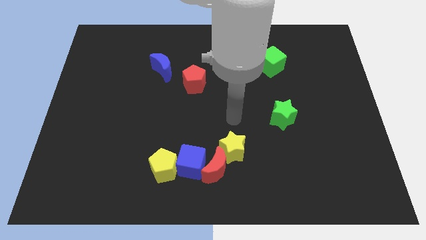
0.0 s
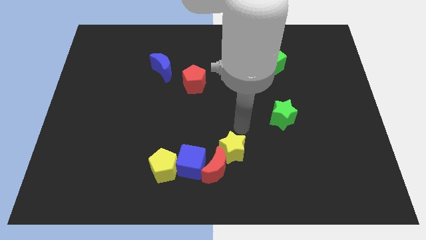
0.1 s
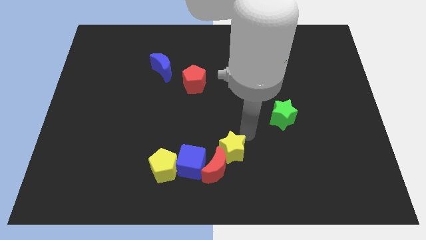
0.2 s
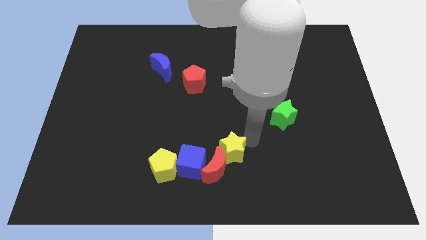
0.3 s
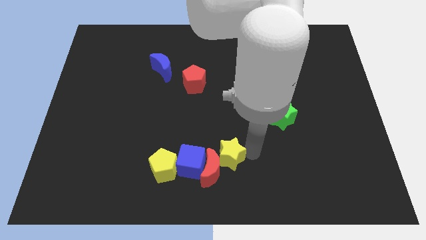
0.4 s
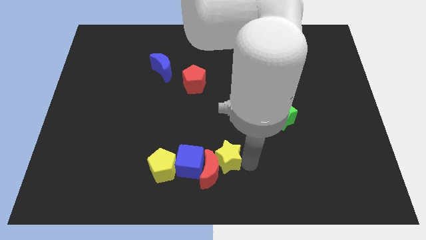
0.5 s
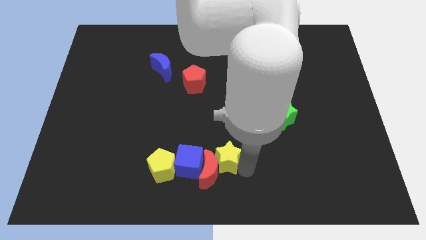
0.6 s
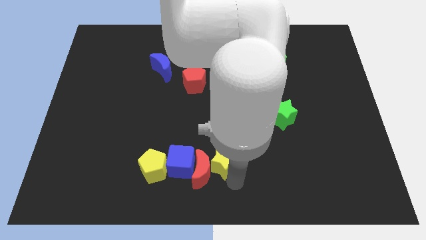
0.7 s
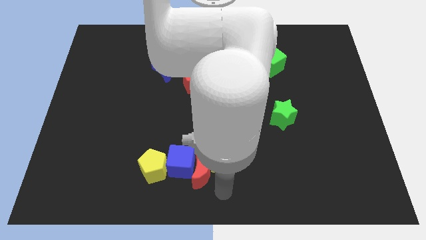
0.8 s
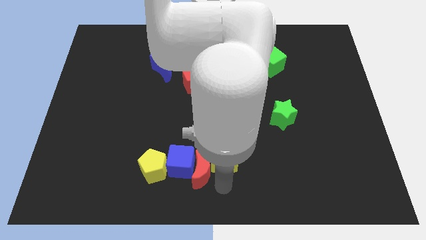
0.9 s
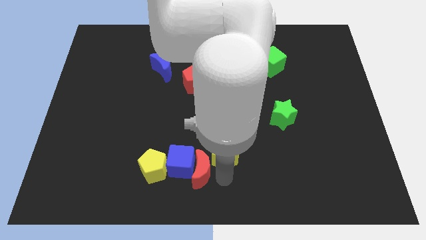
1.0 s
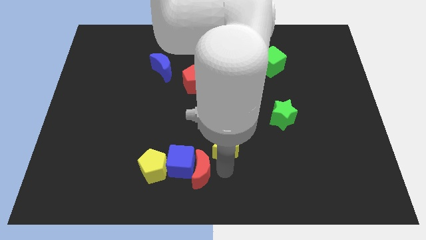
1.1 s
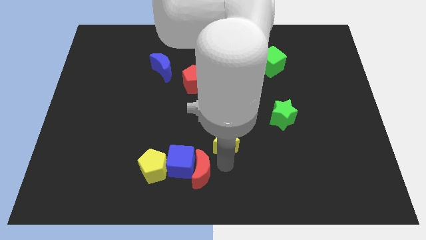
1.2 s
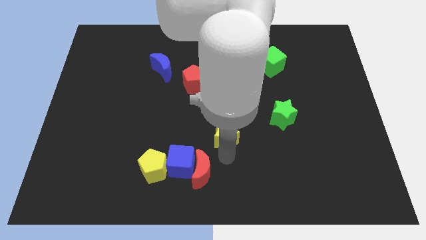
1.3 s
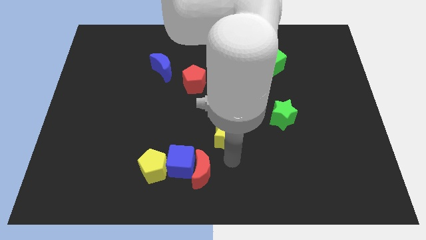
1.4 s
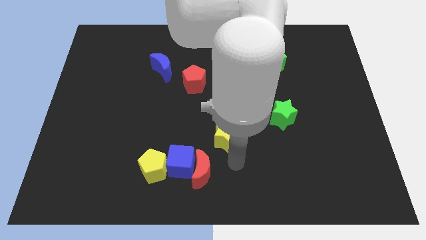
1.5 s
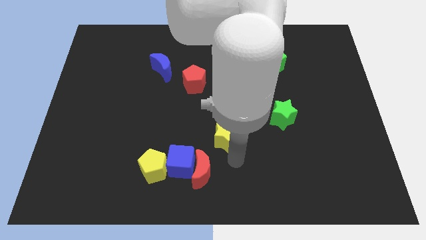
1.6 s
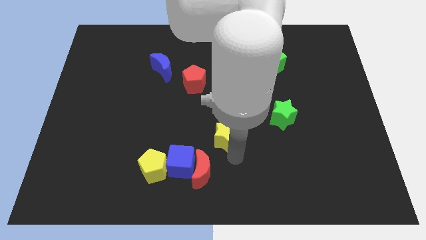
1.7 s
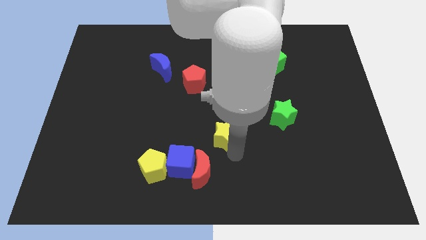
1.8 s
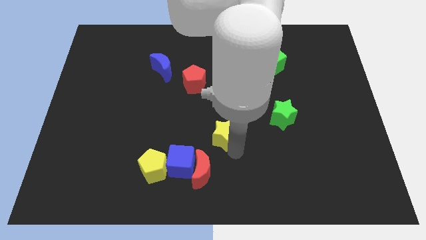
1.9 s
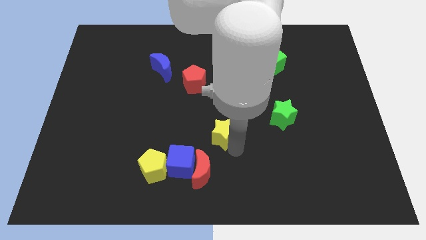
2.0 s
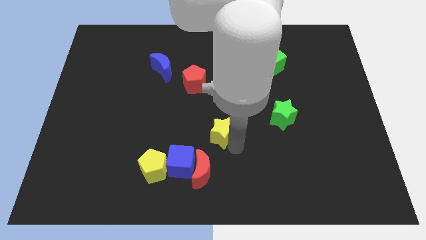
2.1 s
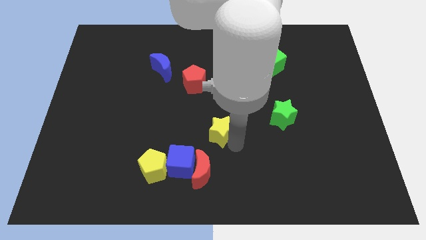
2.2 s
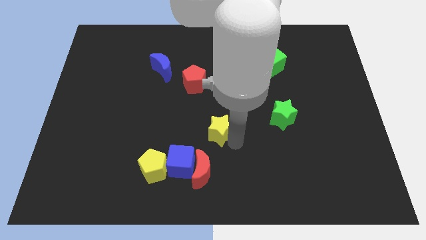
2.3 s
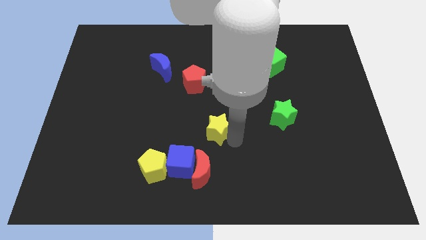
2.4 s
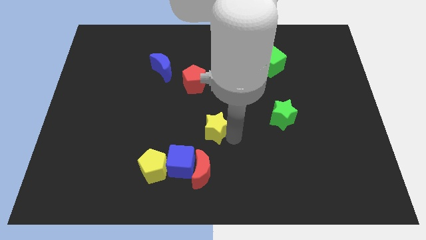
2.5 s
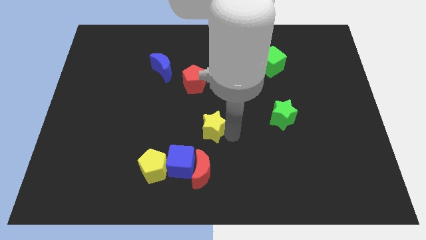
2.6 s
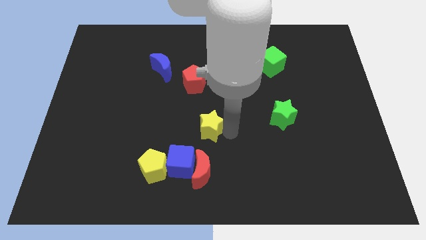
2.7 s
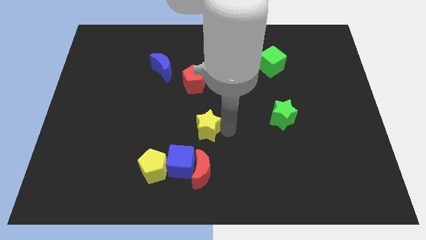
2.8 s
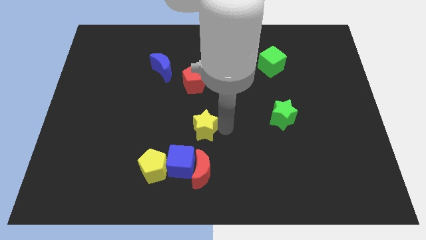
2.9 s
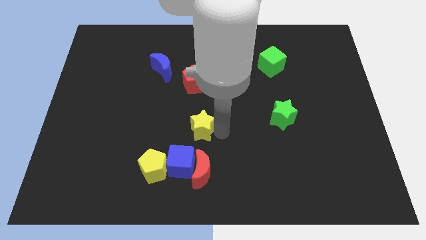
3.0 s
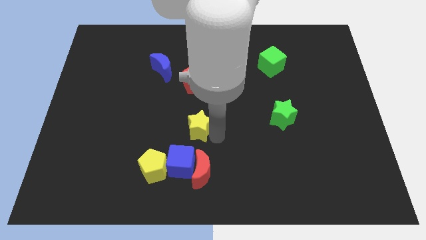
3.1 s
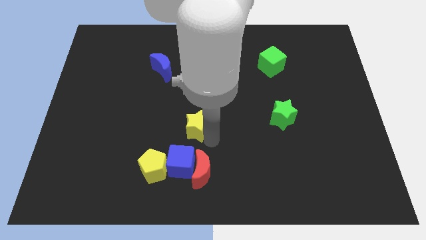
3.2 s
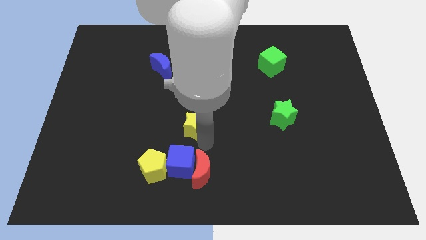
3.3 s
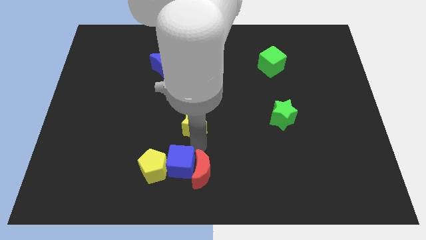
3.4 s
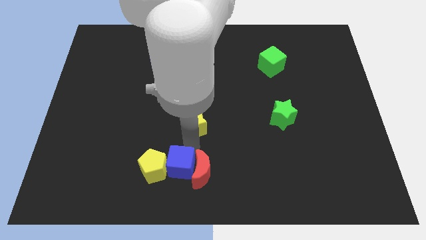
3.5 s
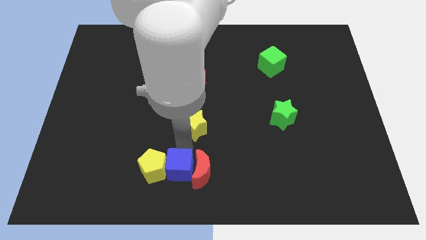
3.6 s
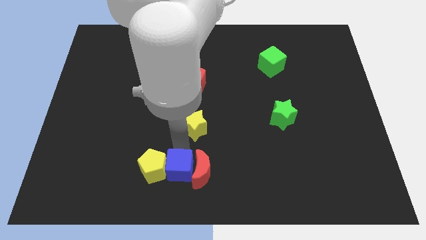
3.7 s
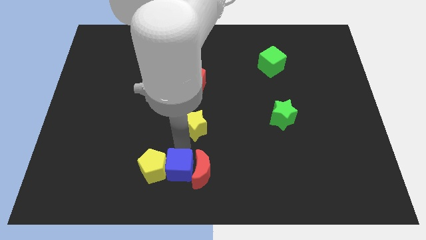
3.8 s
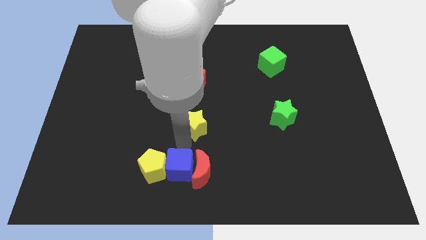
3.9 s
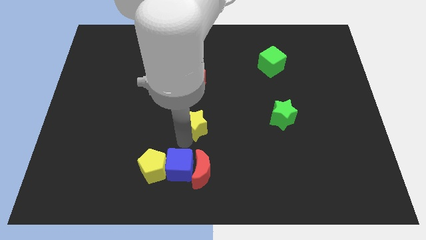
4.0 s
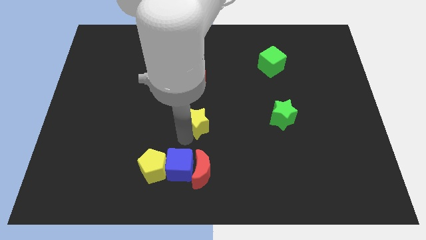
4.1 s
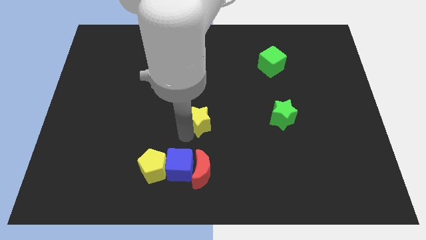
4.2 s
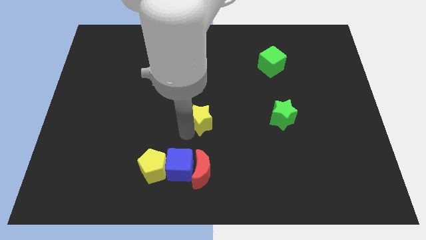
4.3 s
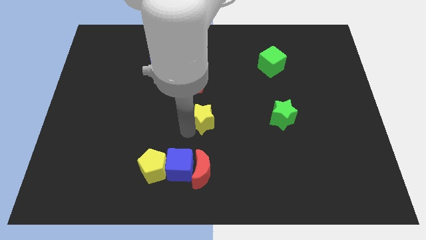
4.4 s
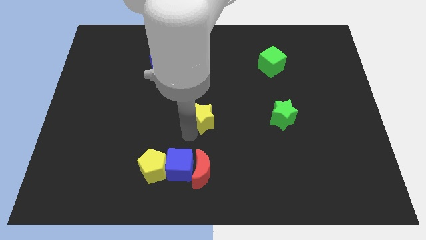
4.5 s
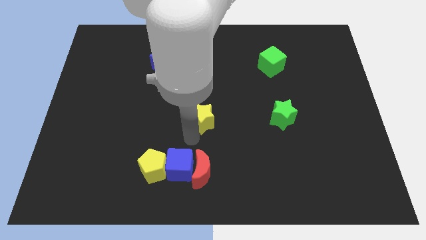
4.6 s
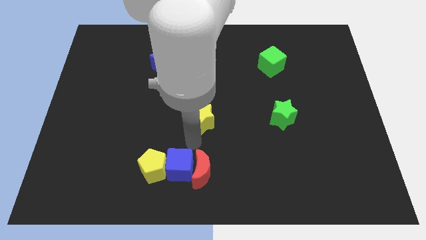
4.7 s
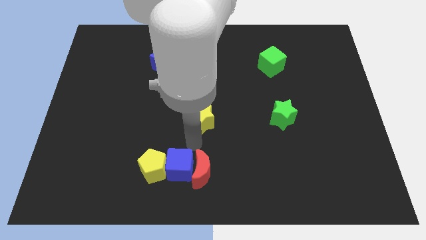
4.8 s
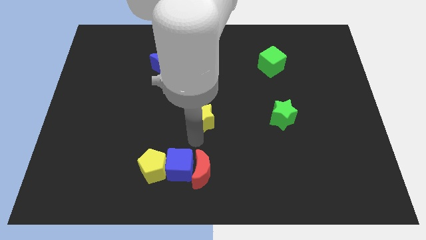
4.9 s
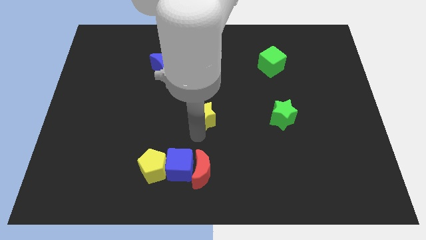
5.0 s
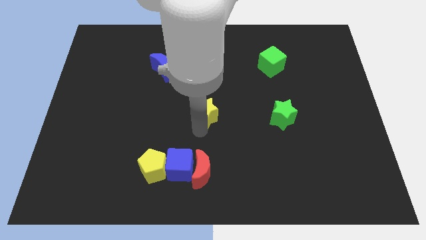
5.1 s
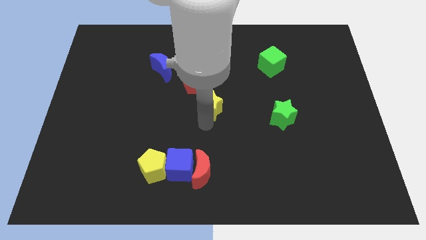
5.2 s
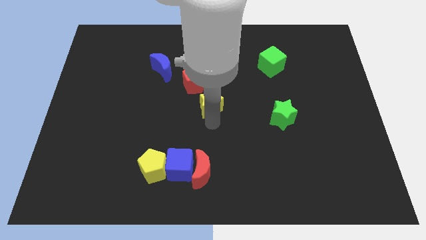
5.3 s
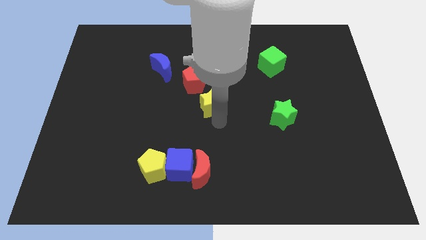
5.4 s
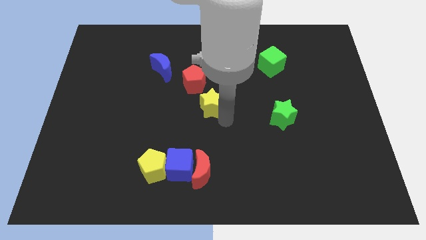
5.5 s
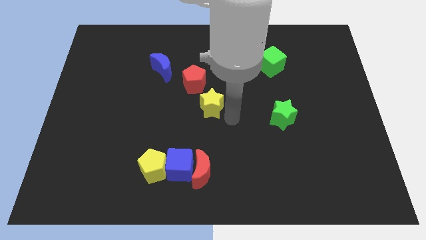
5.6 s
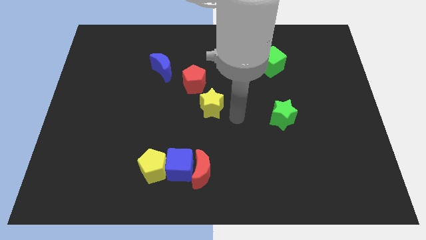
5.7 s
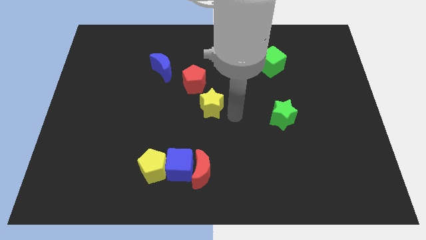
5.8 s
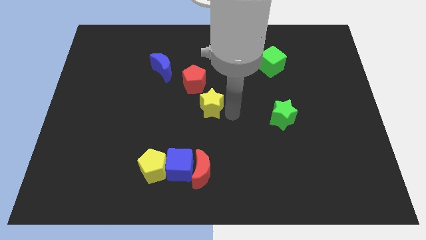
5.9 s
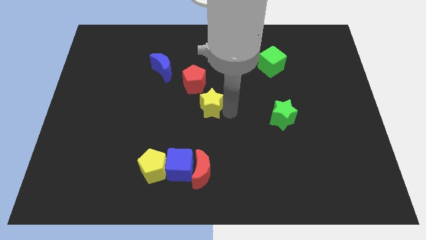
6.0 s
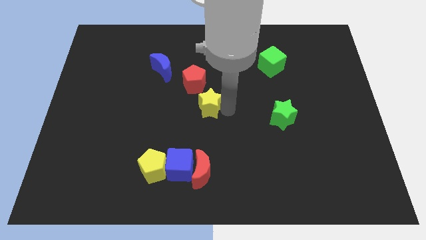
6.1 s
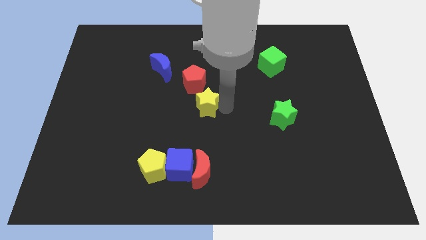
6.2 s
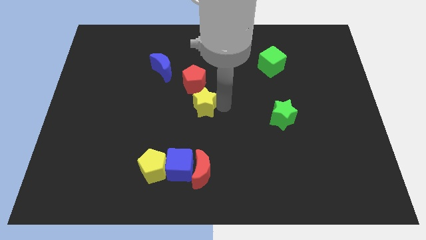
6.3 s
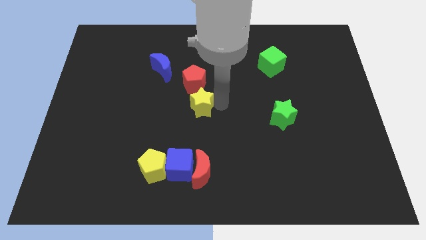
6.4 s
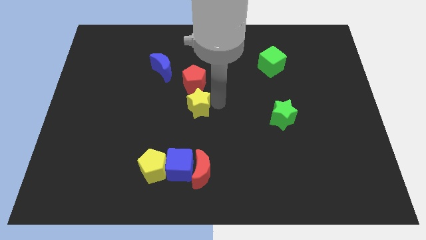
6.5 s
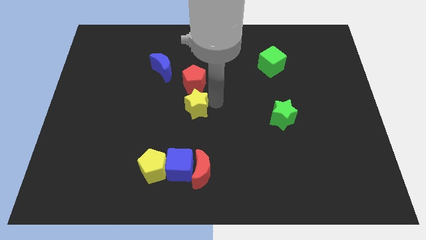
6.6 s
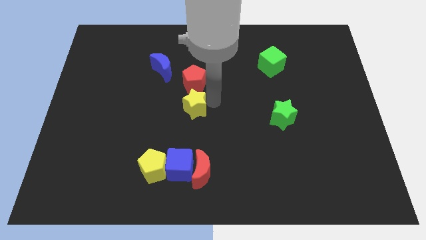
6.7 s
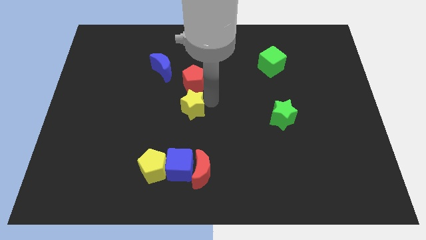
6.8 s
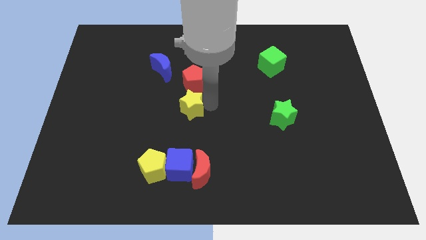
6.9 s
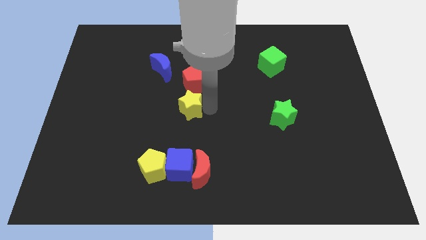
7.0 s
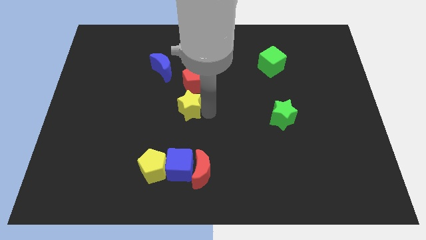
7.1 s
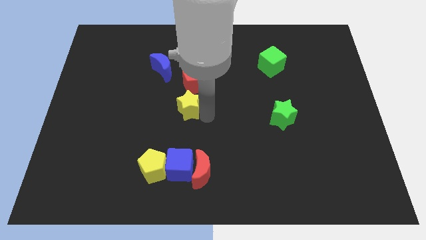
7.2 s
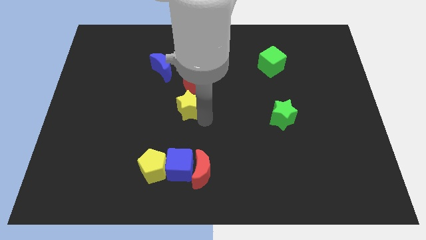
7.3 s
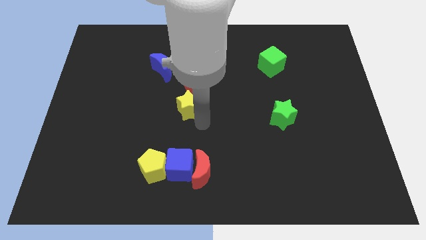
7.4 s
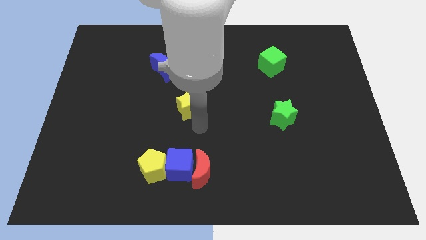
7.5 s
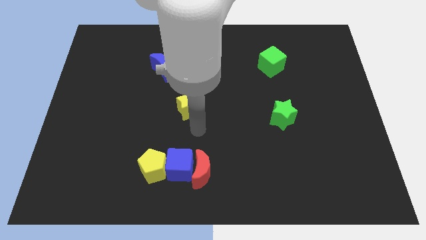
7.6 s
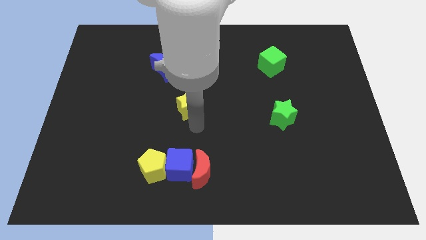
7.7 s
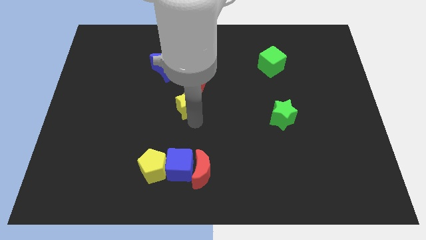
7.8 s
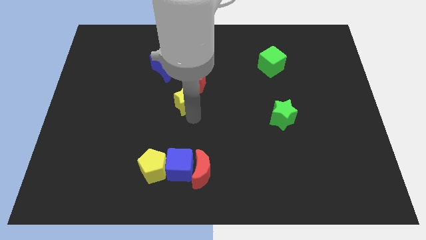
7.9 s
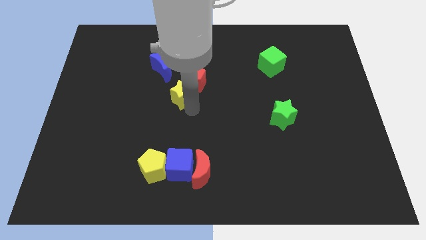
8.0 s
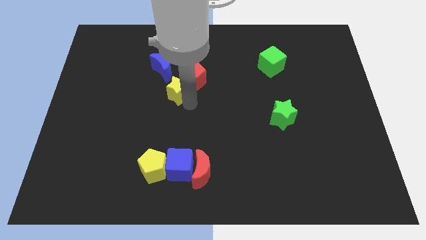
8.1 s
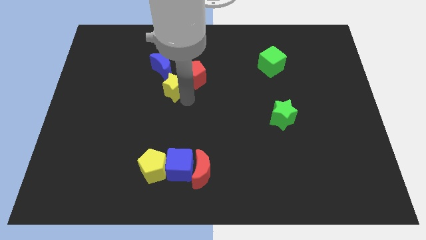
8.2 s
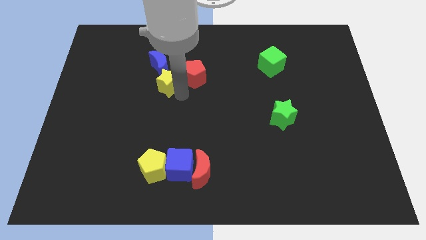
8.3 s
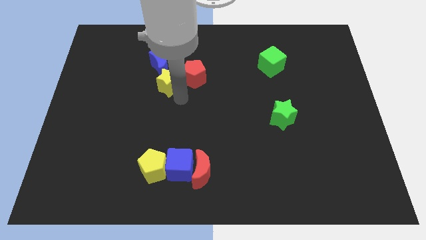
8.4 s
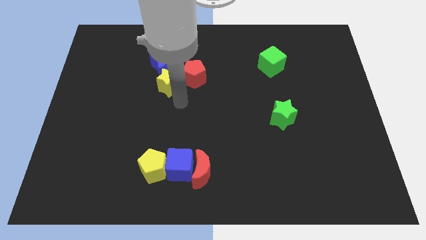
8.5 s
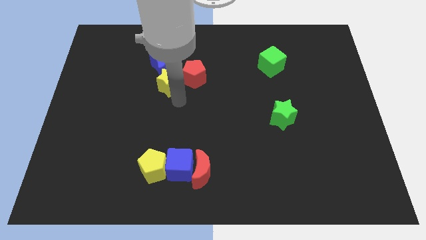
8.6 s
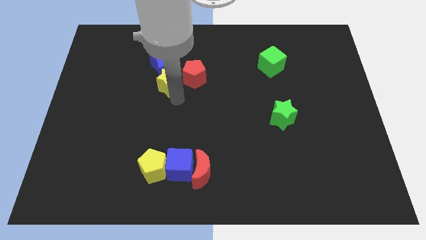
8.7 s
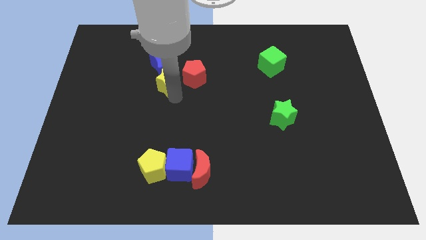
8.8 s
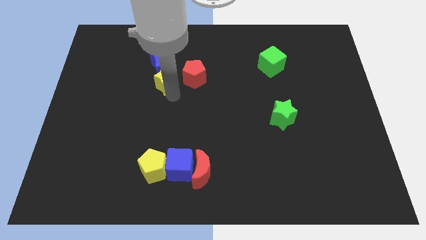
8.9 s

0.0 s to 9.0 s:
slide the yellow star towards the blue moon
